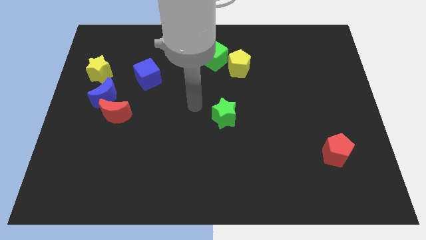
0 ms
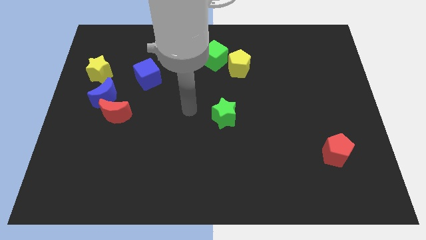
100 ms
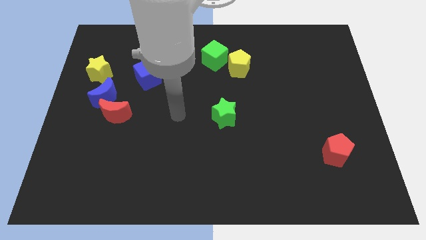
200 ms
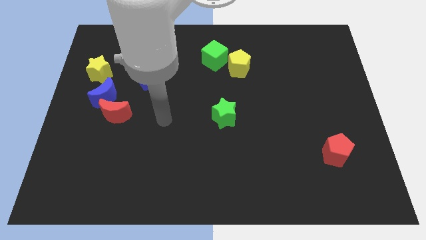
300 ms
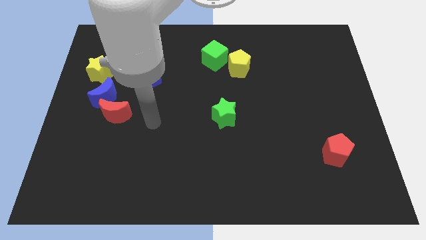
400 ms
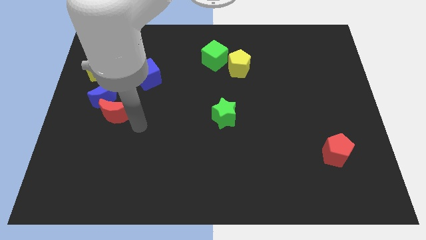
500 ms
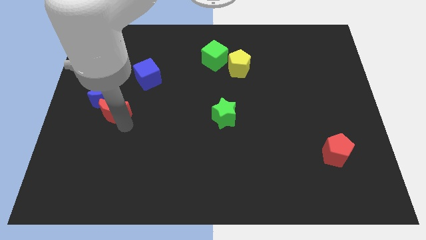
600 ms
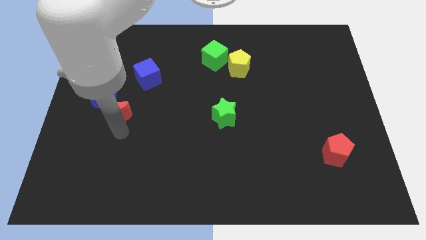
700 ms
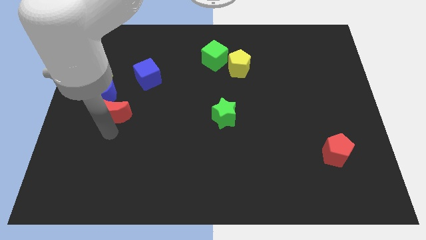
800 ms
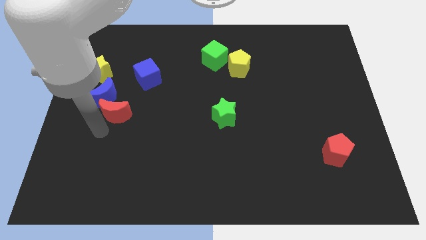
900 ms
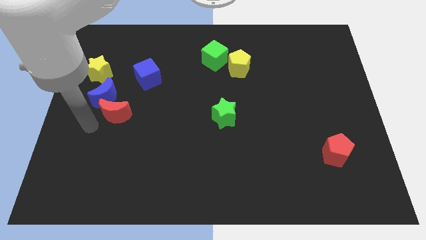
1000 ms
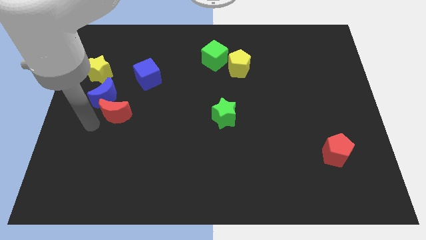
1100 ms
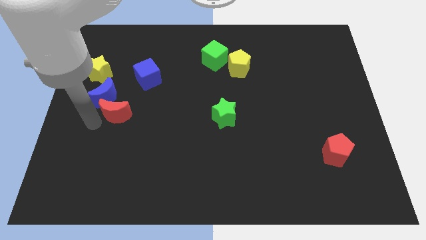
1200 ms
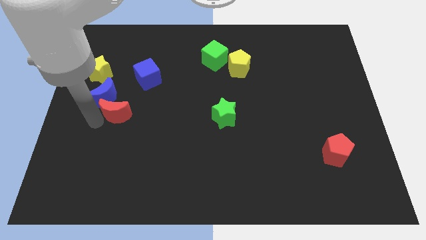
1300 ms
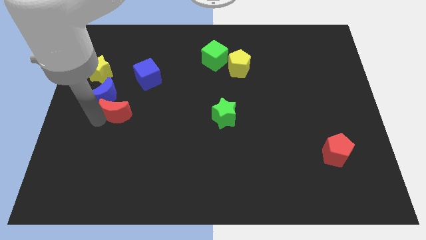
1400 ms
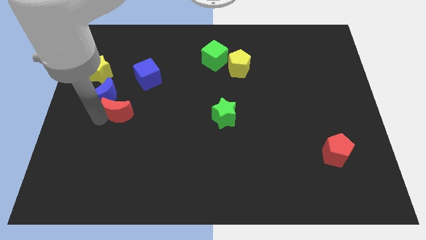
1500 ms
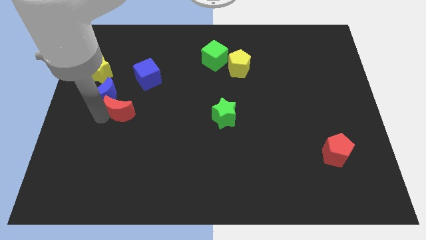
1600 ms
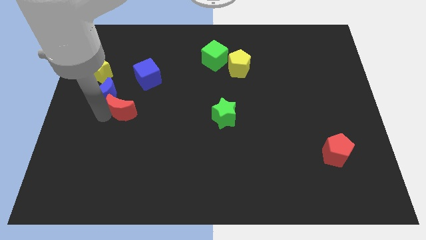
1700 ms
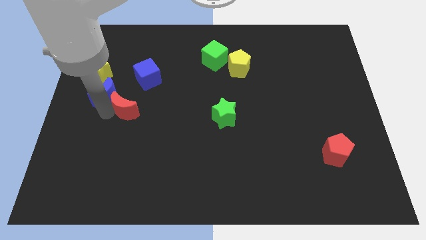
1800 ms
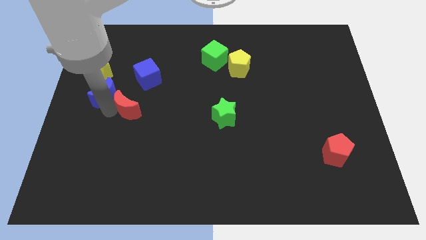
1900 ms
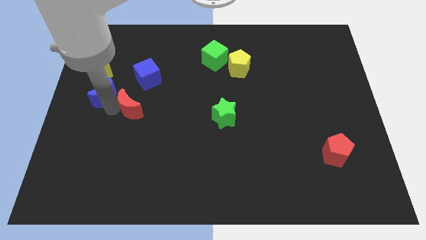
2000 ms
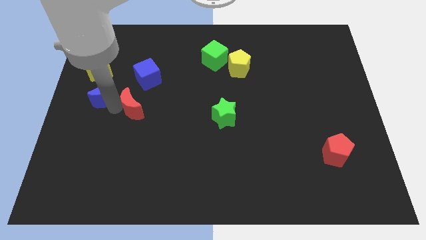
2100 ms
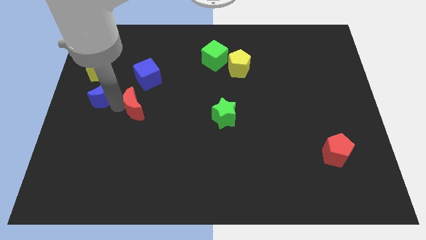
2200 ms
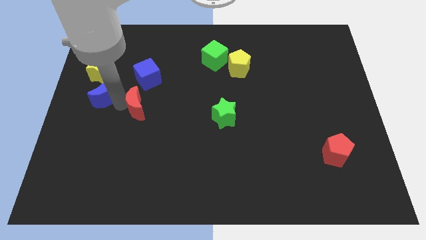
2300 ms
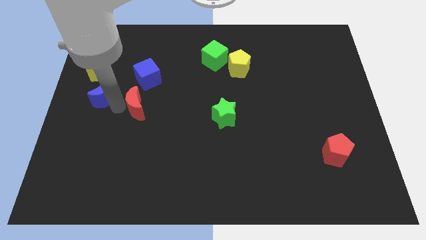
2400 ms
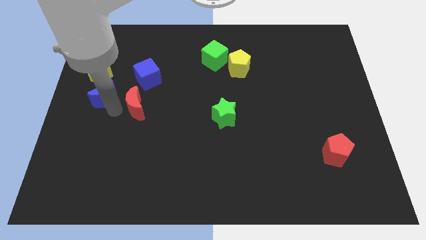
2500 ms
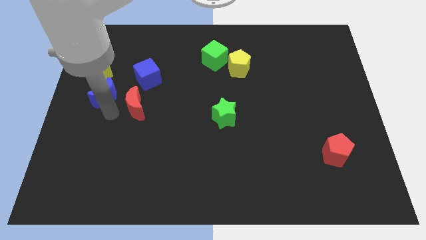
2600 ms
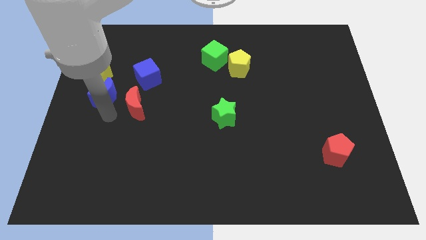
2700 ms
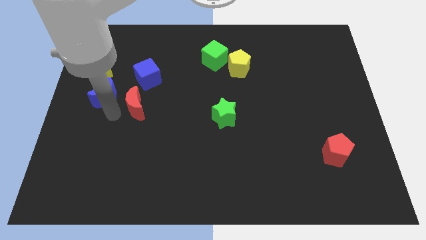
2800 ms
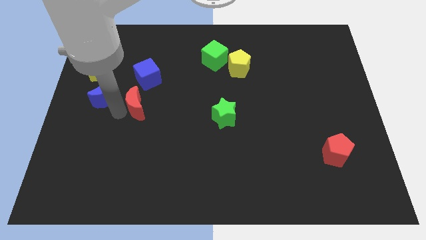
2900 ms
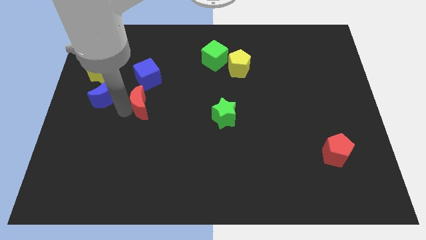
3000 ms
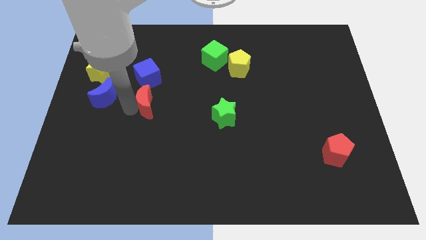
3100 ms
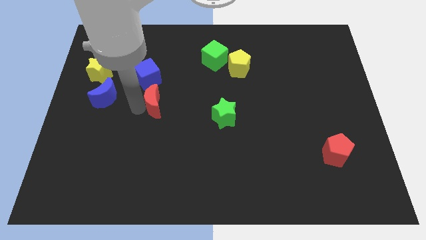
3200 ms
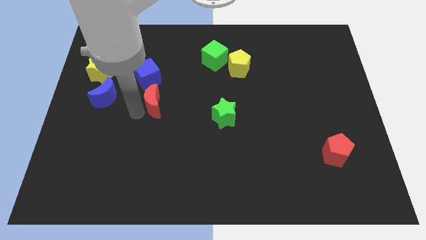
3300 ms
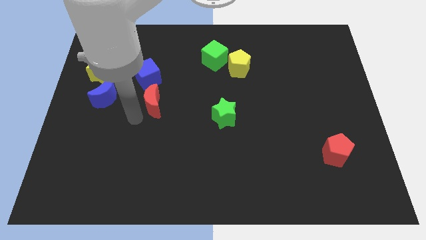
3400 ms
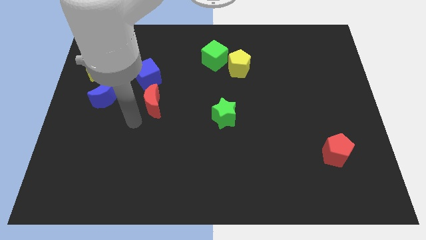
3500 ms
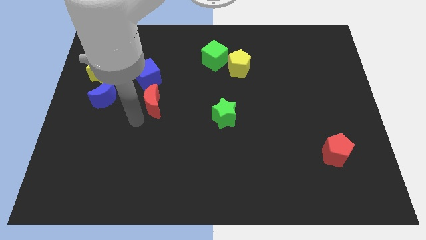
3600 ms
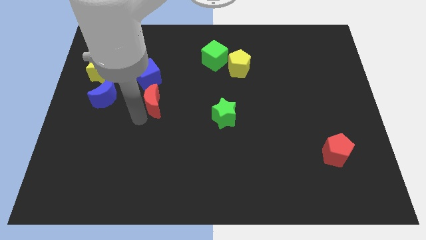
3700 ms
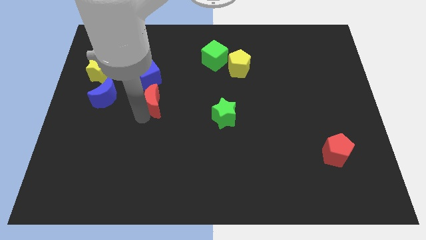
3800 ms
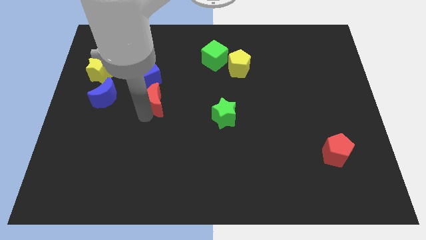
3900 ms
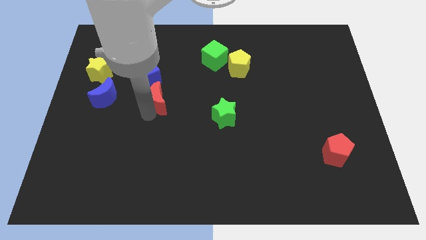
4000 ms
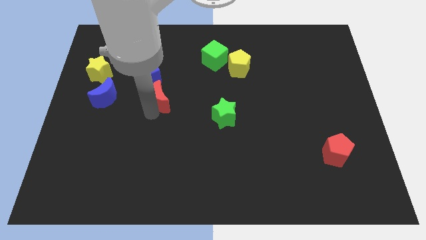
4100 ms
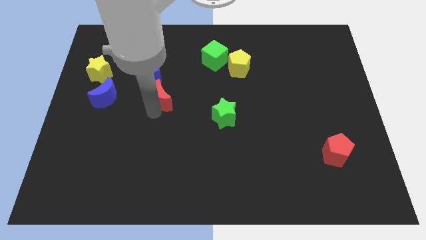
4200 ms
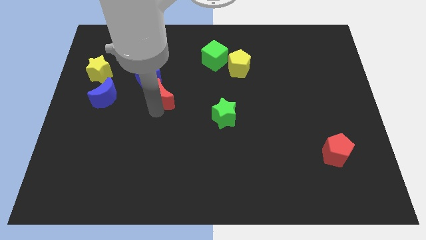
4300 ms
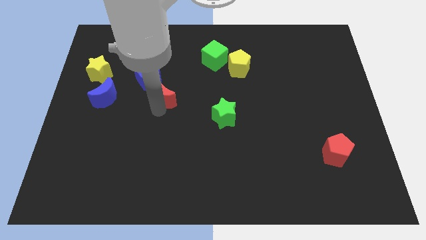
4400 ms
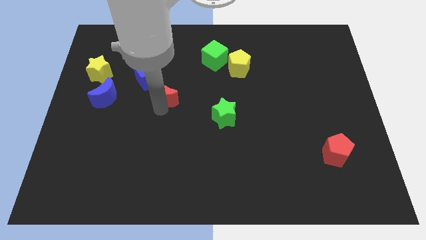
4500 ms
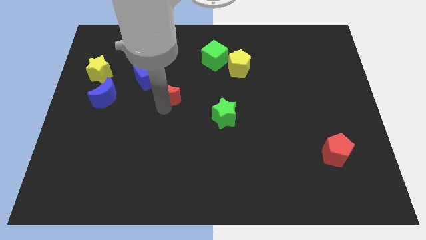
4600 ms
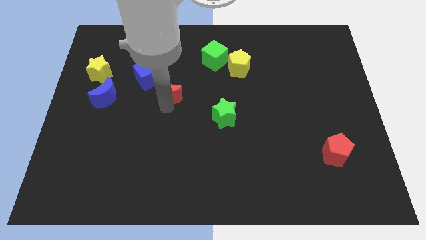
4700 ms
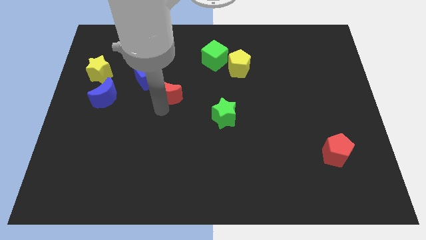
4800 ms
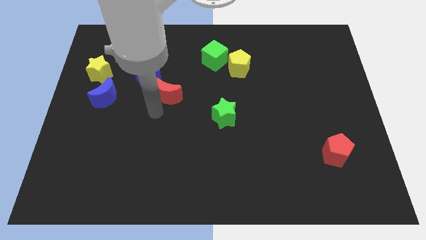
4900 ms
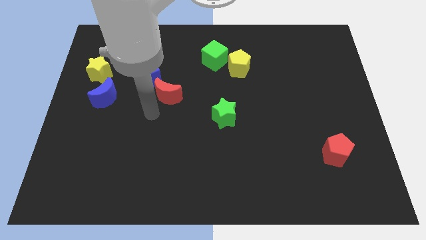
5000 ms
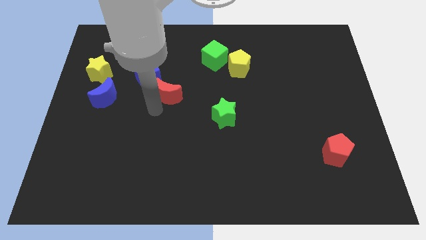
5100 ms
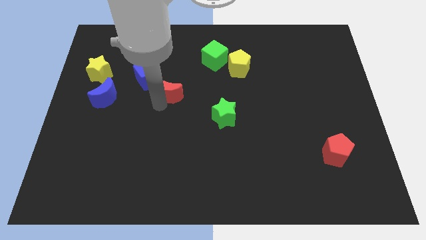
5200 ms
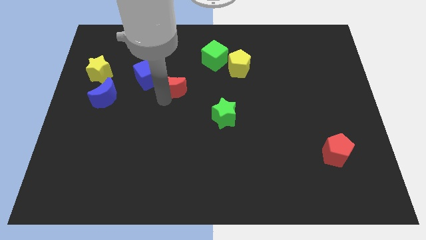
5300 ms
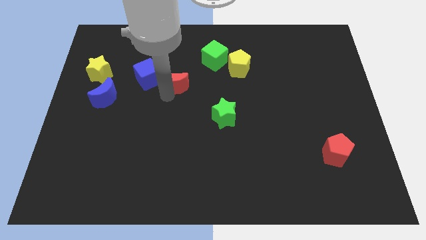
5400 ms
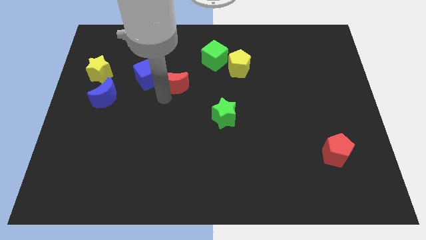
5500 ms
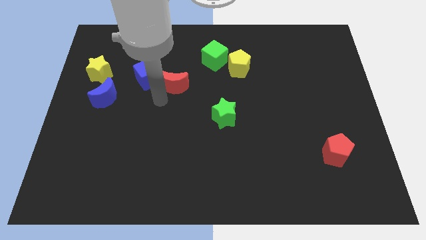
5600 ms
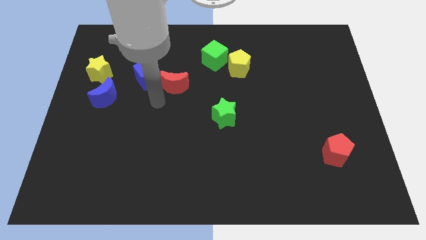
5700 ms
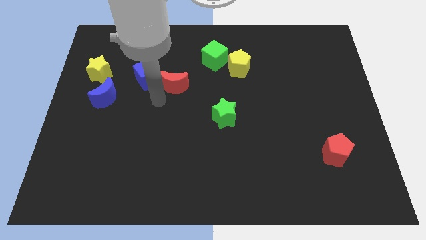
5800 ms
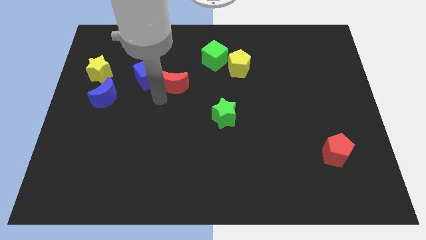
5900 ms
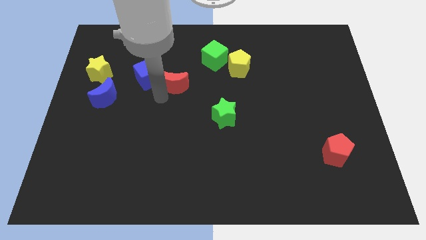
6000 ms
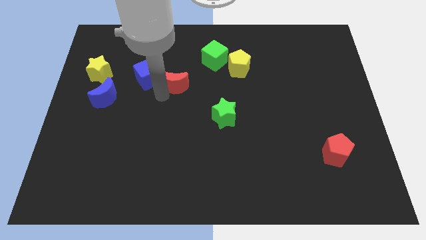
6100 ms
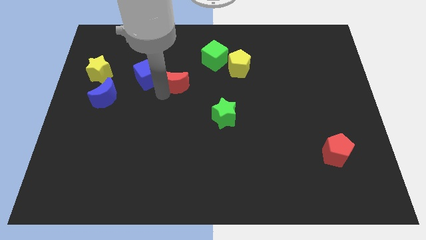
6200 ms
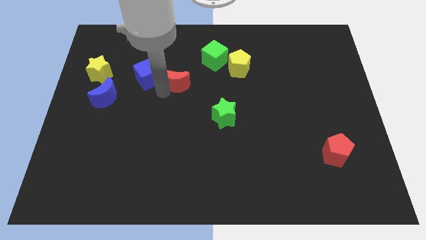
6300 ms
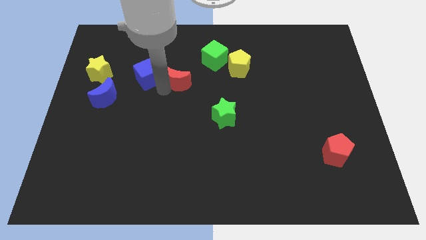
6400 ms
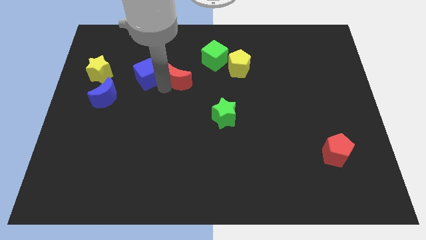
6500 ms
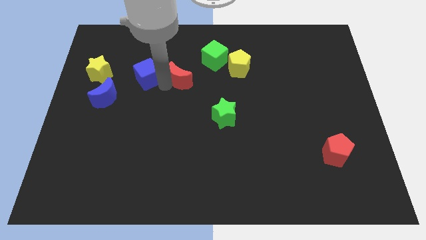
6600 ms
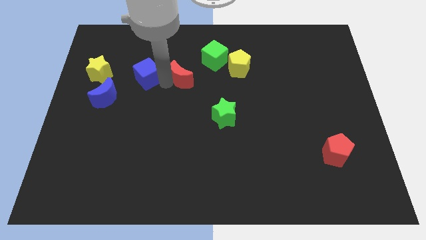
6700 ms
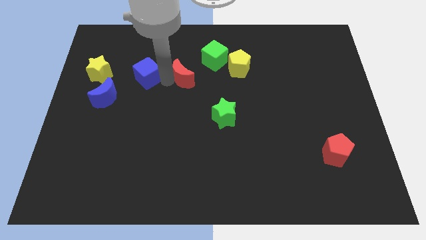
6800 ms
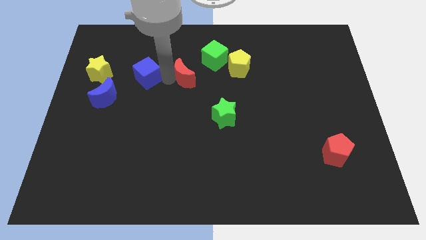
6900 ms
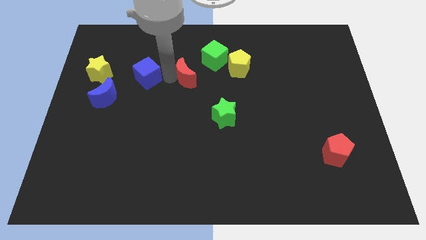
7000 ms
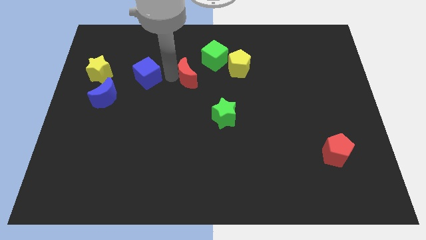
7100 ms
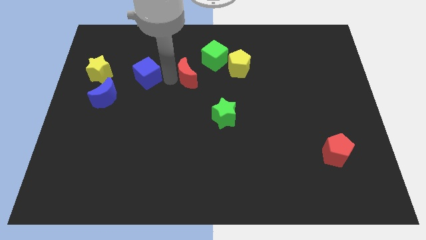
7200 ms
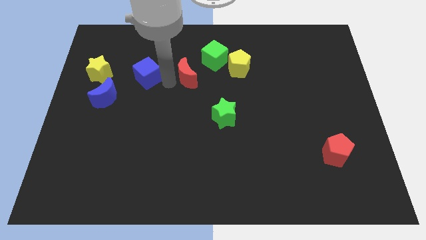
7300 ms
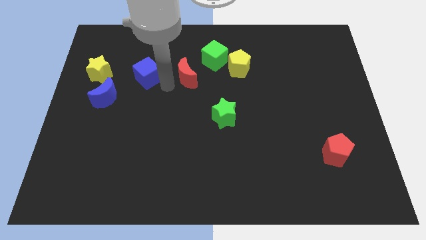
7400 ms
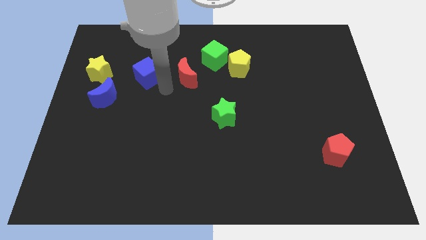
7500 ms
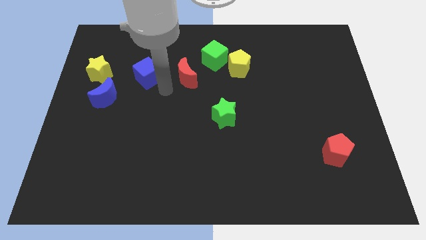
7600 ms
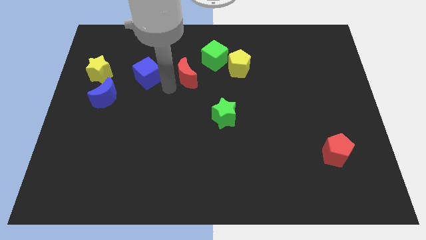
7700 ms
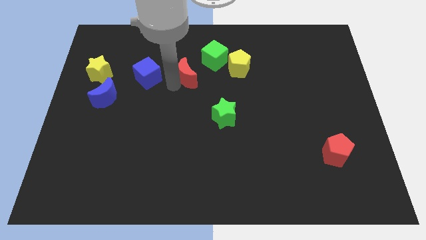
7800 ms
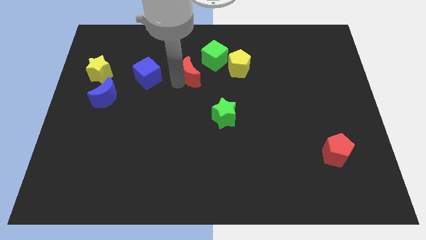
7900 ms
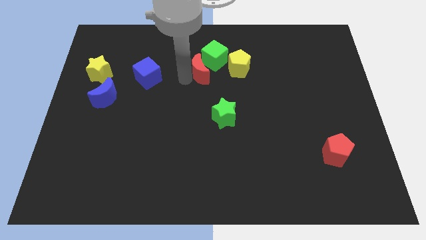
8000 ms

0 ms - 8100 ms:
push the red moon close to the green cube
